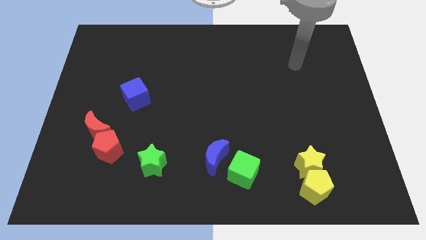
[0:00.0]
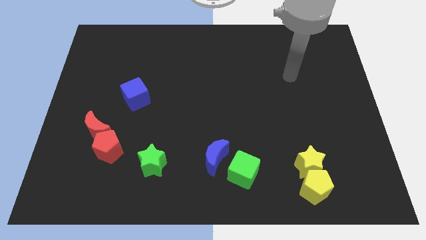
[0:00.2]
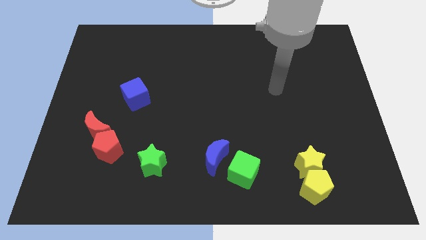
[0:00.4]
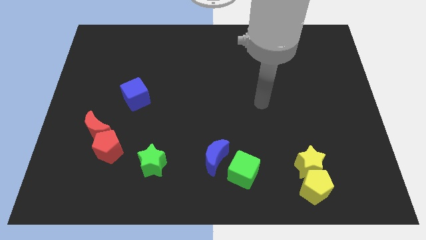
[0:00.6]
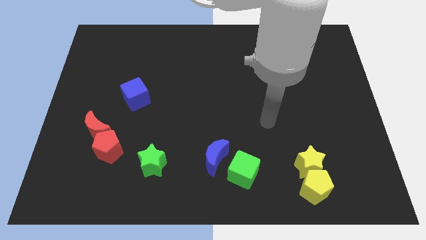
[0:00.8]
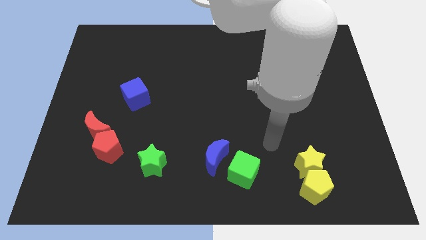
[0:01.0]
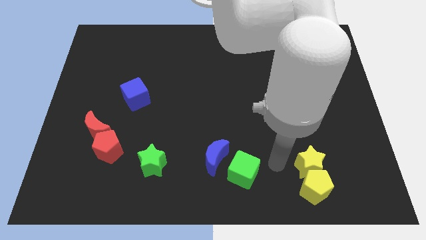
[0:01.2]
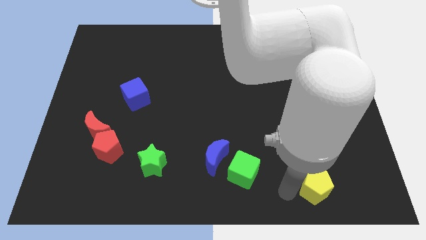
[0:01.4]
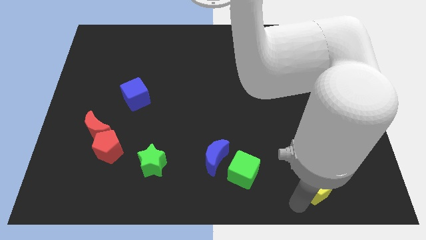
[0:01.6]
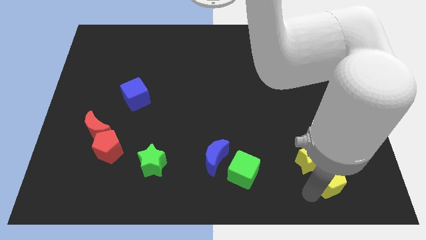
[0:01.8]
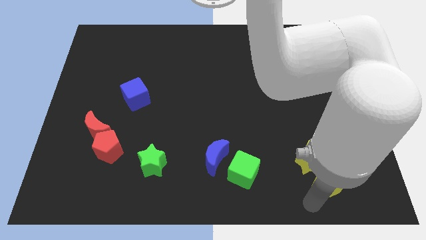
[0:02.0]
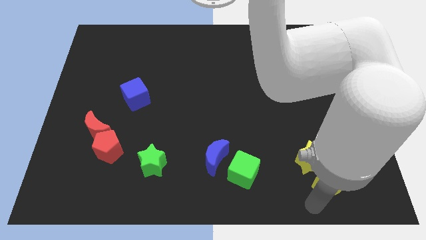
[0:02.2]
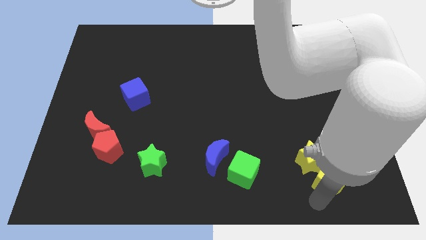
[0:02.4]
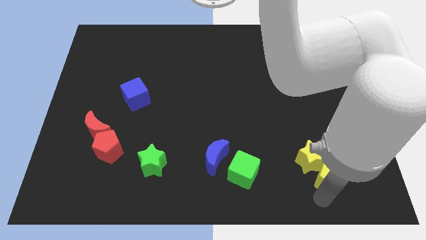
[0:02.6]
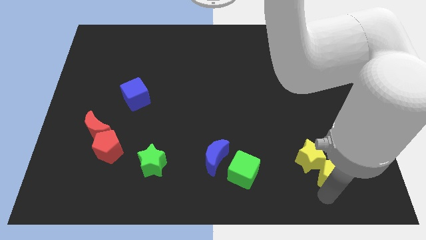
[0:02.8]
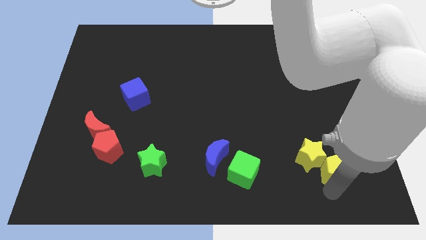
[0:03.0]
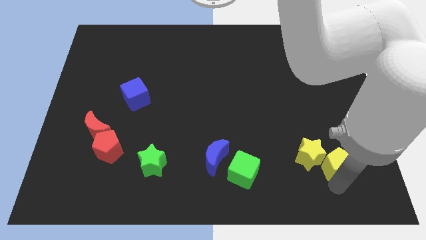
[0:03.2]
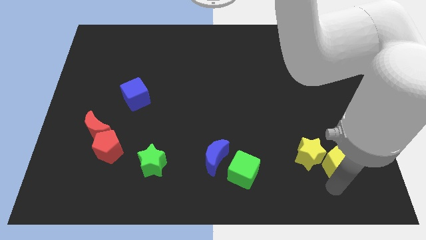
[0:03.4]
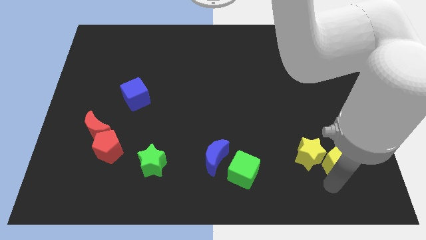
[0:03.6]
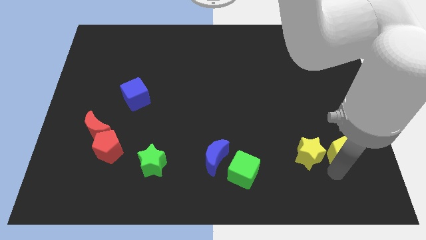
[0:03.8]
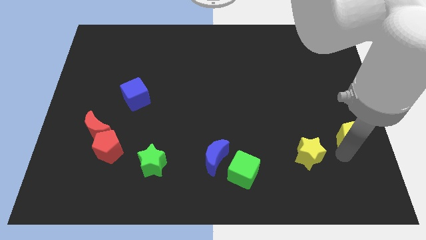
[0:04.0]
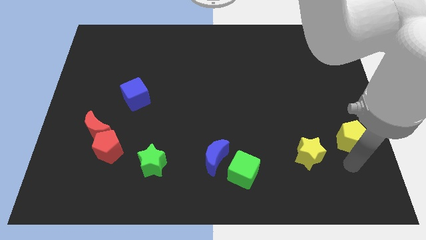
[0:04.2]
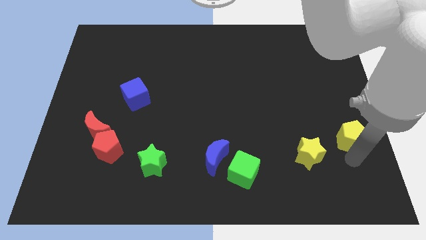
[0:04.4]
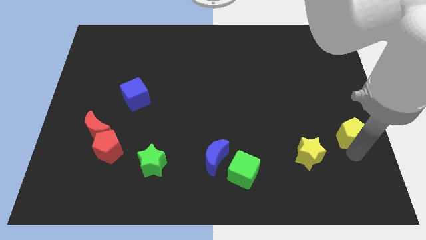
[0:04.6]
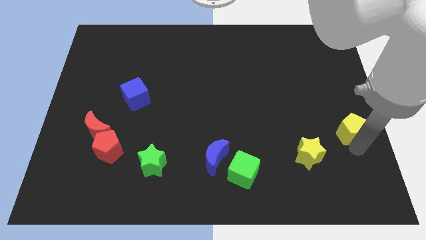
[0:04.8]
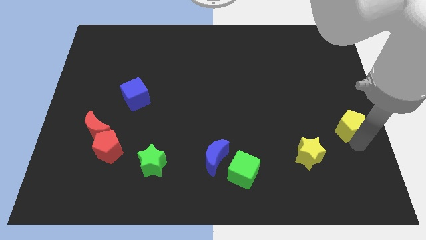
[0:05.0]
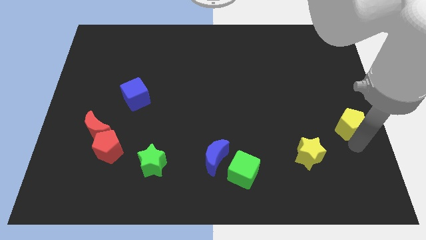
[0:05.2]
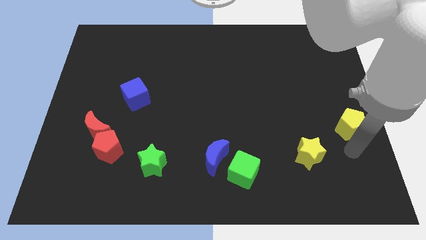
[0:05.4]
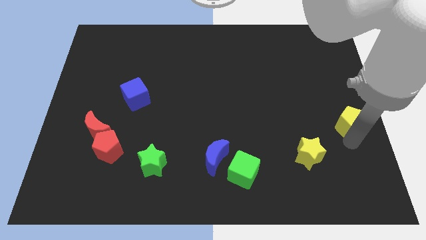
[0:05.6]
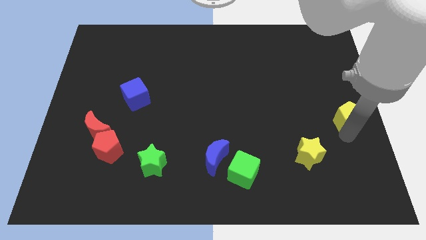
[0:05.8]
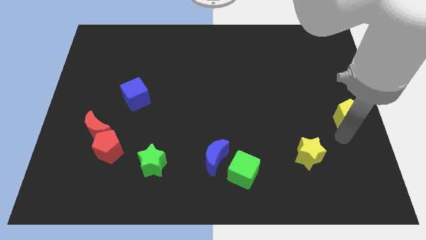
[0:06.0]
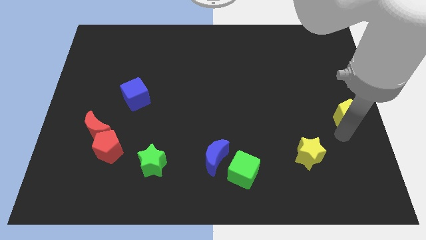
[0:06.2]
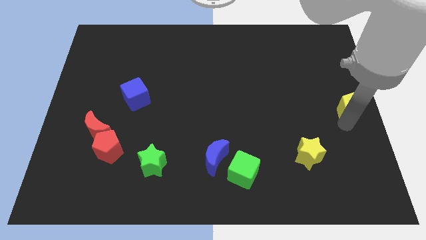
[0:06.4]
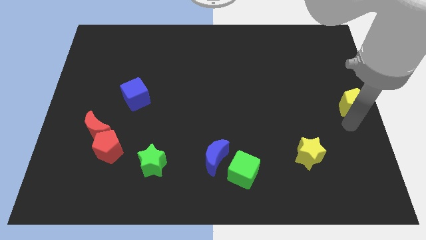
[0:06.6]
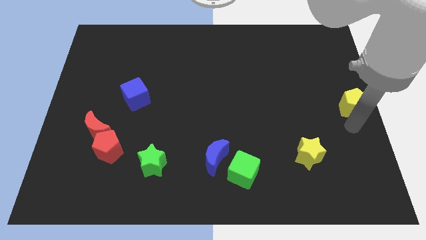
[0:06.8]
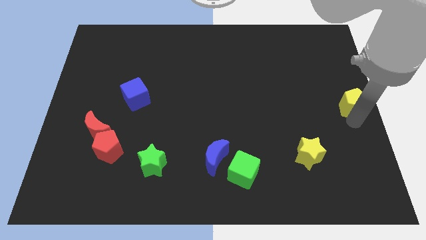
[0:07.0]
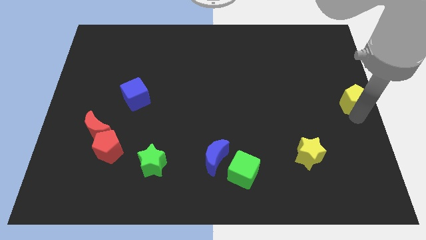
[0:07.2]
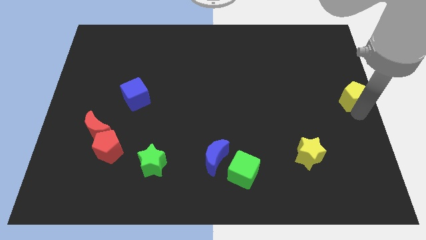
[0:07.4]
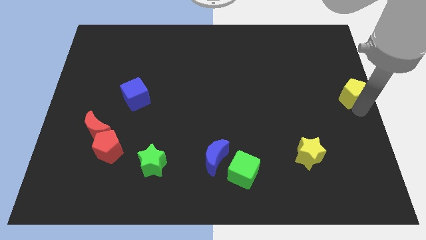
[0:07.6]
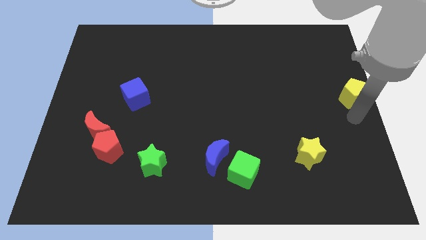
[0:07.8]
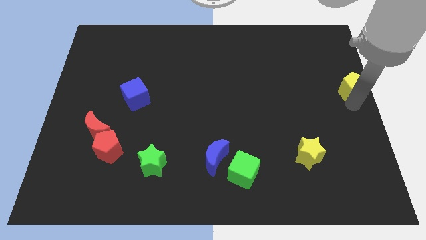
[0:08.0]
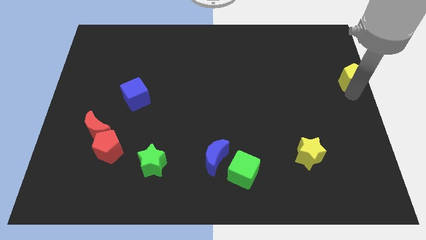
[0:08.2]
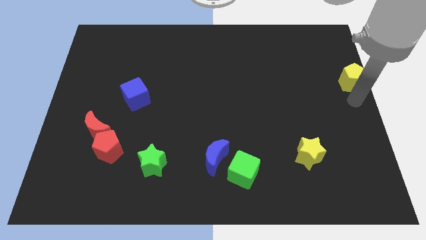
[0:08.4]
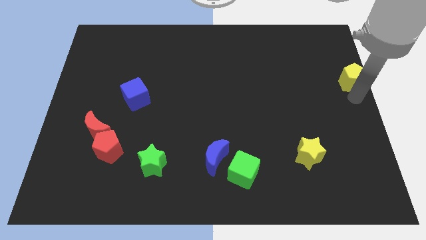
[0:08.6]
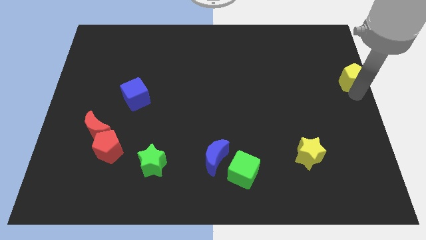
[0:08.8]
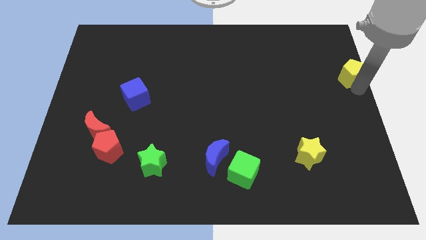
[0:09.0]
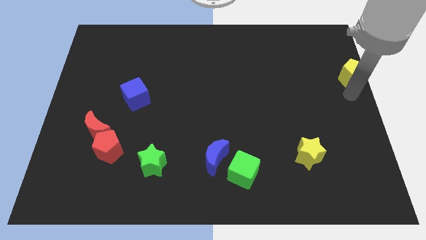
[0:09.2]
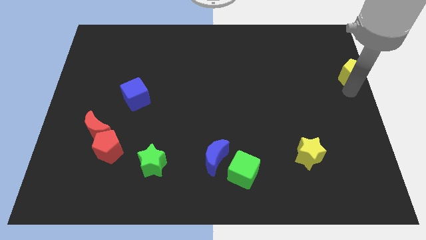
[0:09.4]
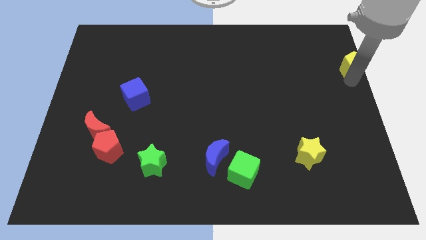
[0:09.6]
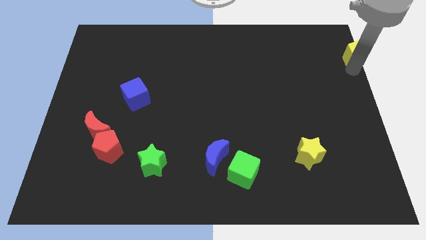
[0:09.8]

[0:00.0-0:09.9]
move the yellow pentagon to the top right

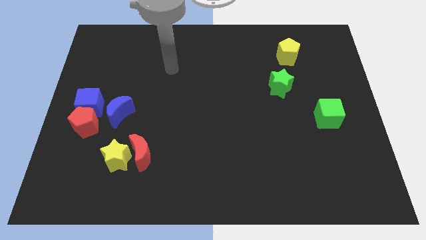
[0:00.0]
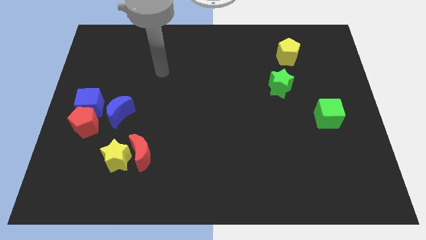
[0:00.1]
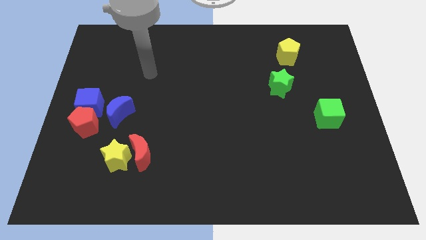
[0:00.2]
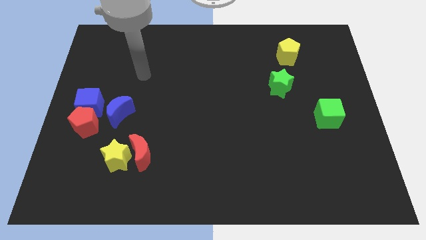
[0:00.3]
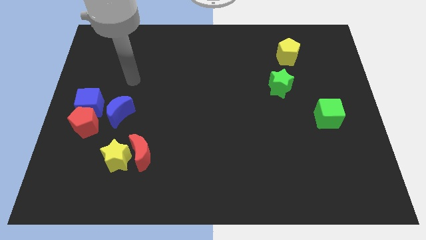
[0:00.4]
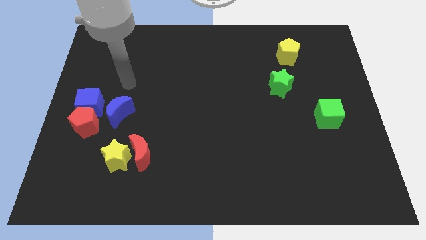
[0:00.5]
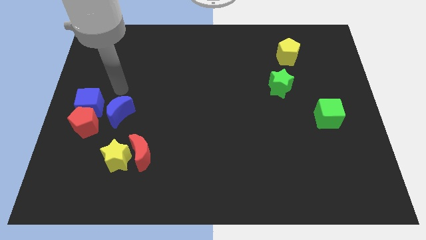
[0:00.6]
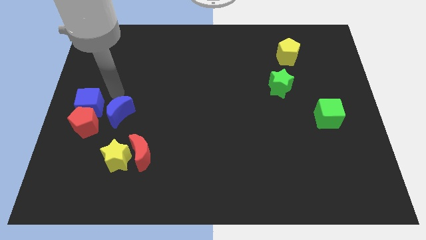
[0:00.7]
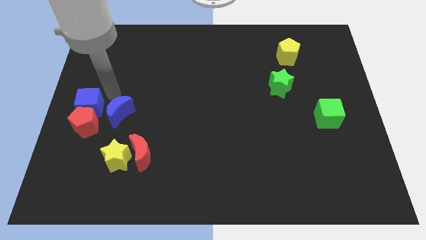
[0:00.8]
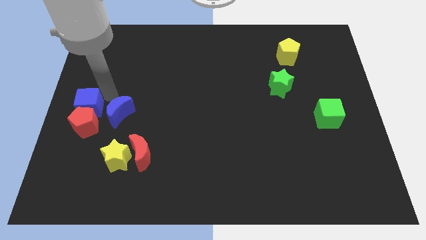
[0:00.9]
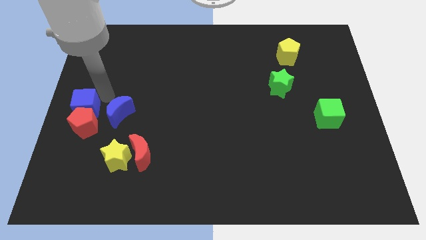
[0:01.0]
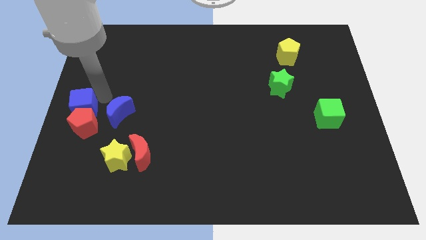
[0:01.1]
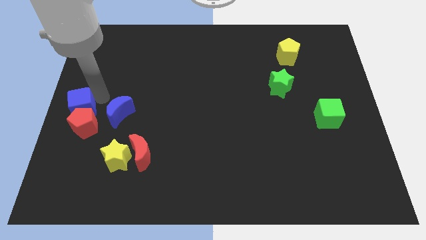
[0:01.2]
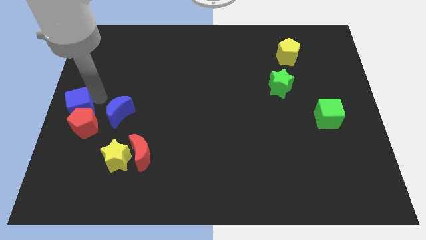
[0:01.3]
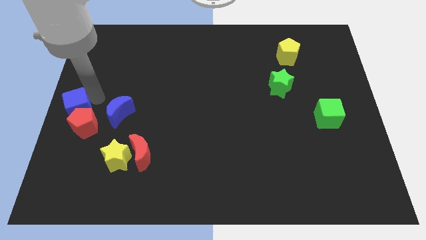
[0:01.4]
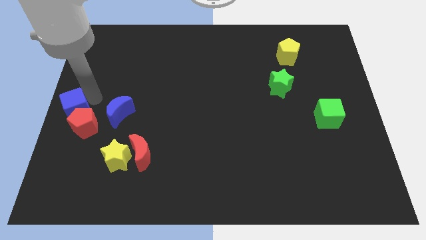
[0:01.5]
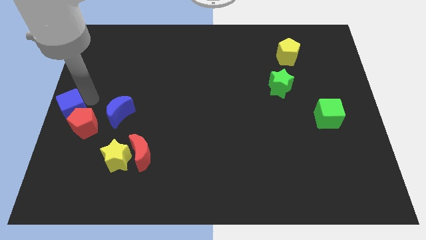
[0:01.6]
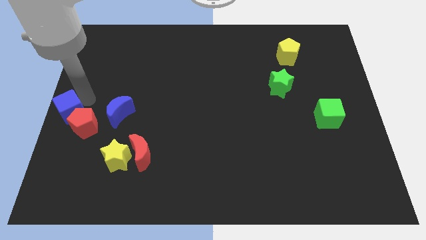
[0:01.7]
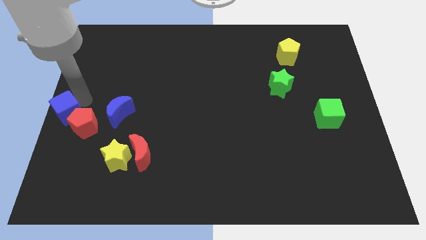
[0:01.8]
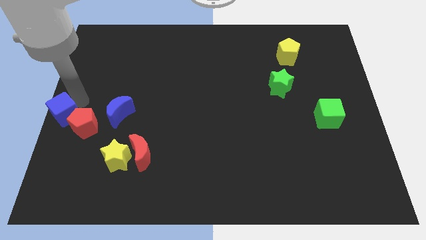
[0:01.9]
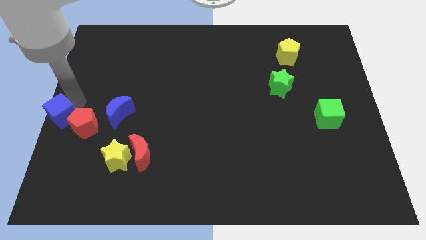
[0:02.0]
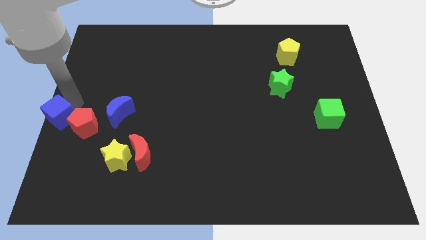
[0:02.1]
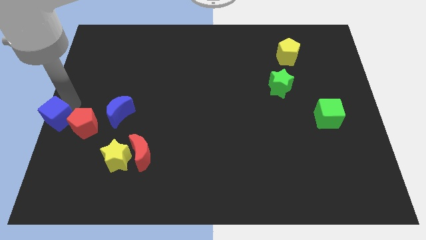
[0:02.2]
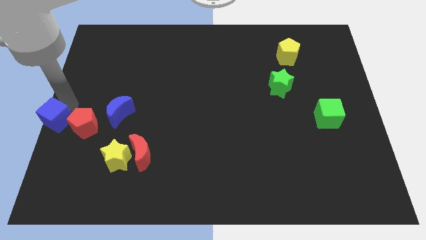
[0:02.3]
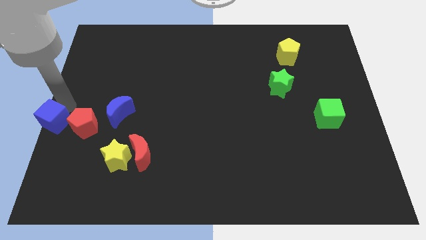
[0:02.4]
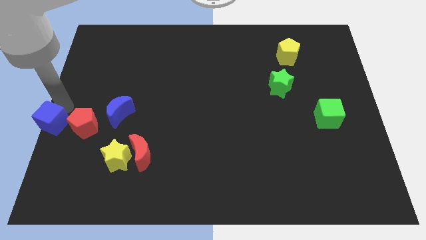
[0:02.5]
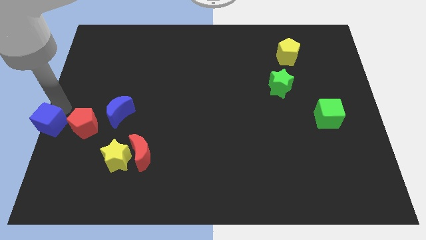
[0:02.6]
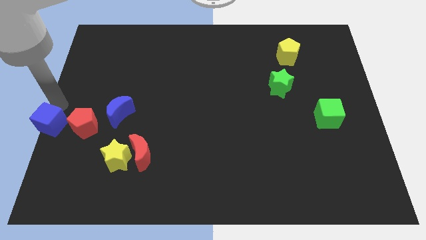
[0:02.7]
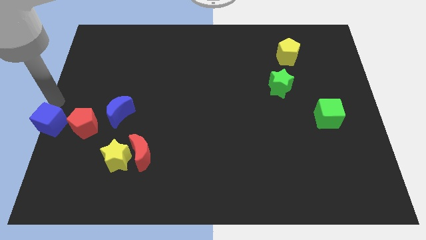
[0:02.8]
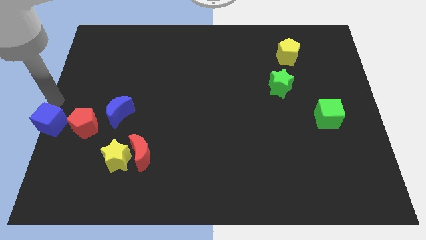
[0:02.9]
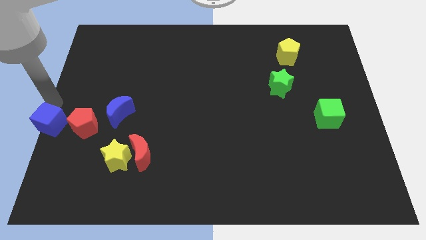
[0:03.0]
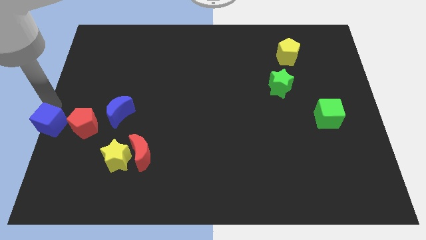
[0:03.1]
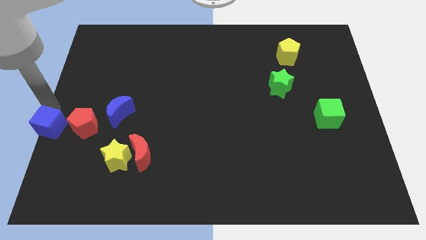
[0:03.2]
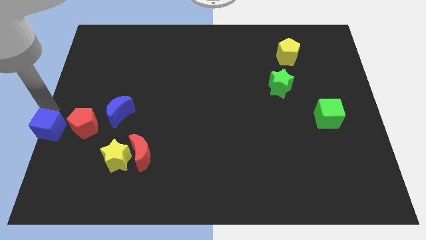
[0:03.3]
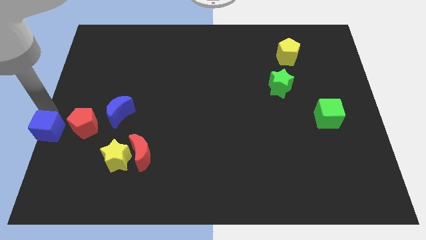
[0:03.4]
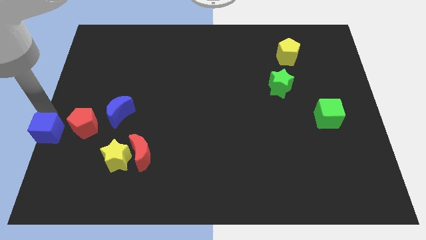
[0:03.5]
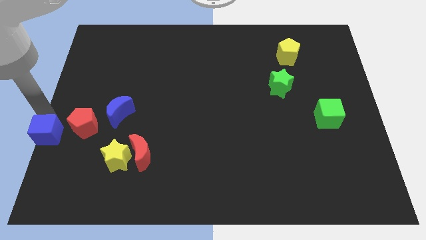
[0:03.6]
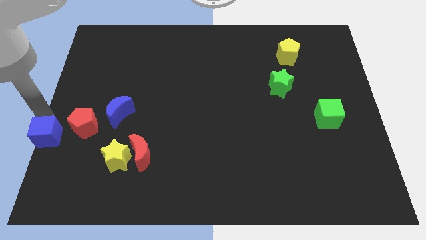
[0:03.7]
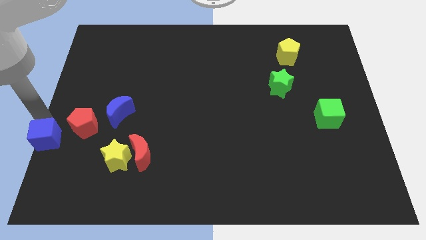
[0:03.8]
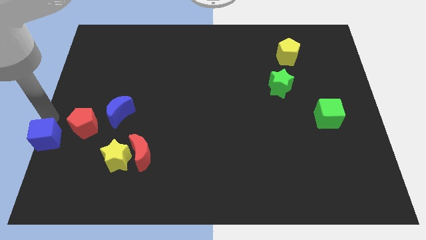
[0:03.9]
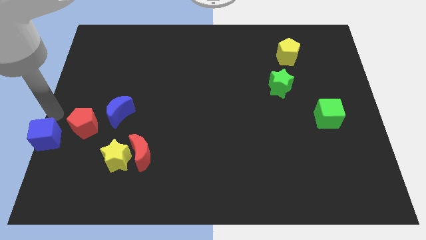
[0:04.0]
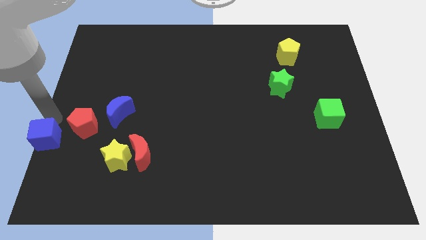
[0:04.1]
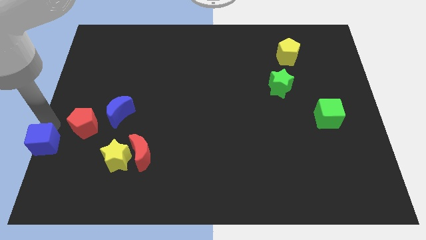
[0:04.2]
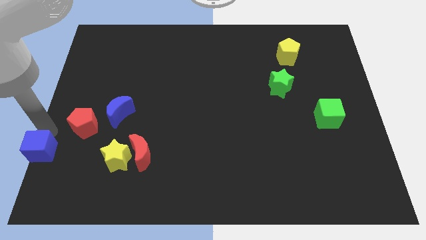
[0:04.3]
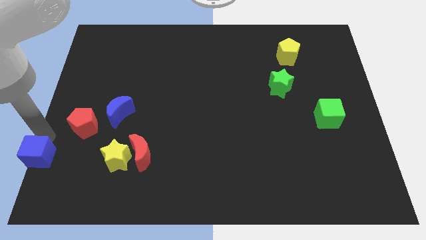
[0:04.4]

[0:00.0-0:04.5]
push the blue cube to the bottom left of the board
